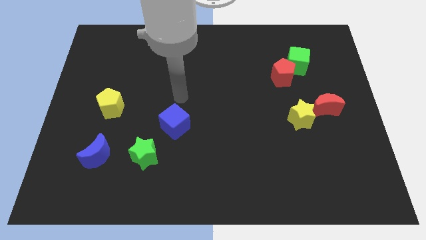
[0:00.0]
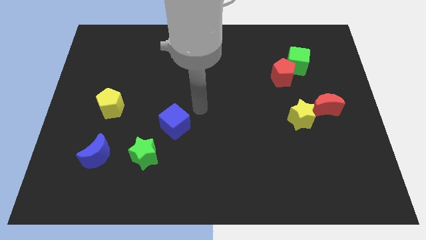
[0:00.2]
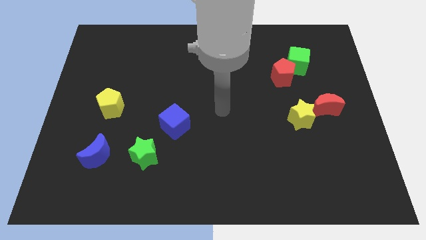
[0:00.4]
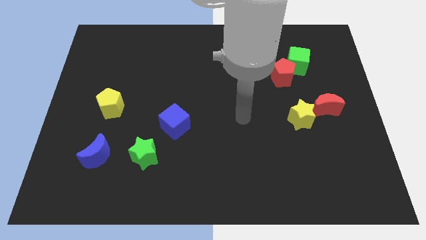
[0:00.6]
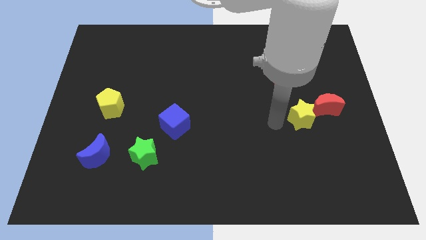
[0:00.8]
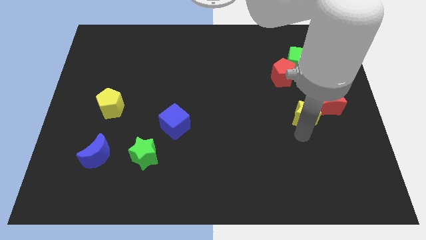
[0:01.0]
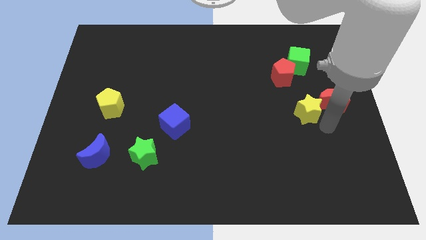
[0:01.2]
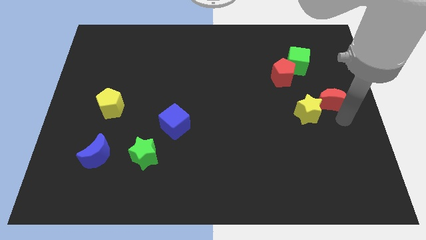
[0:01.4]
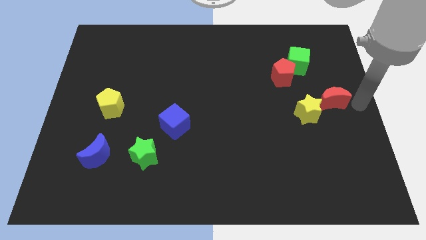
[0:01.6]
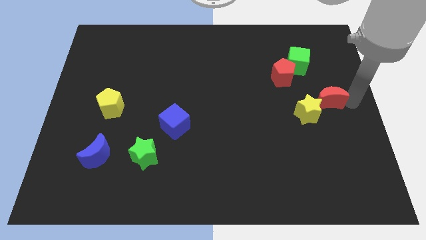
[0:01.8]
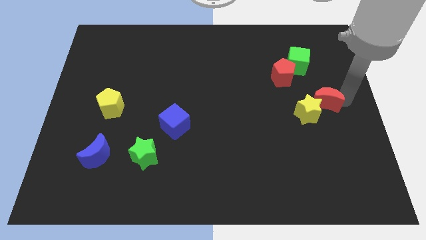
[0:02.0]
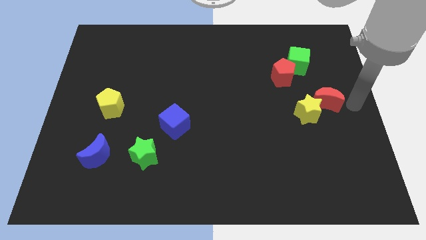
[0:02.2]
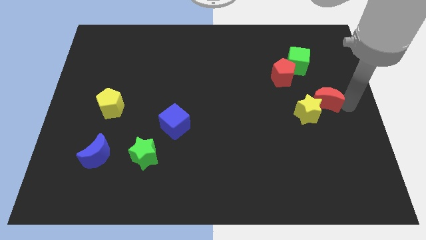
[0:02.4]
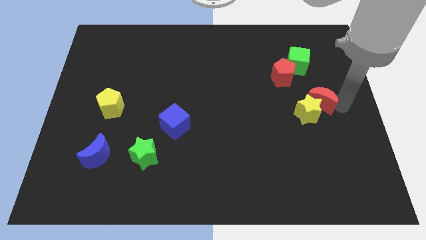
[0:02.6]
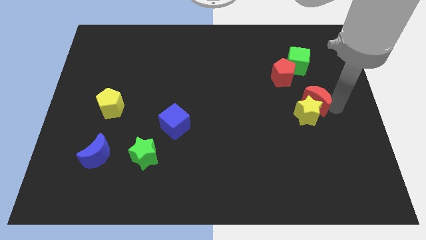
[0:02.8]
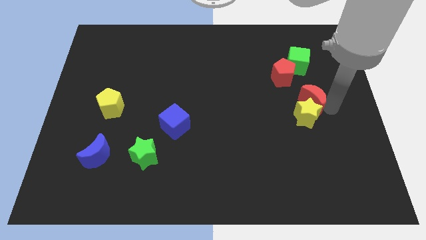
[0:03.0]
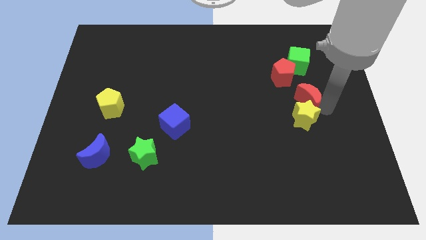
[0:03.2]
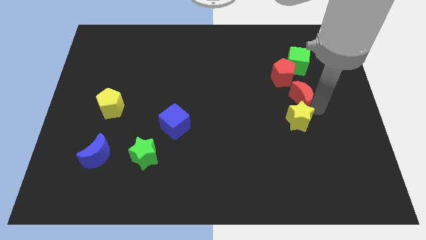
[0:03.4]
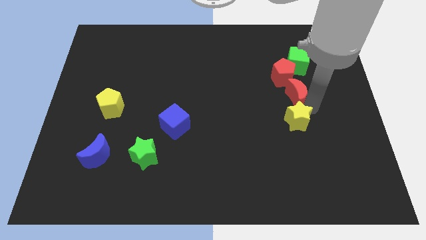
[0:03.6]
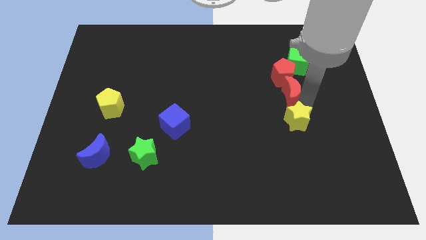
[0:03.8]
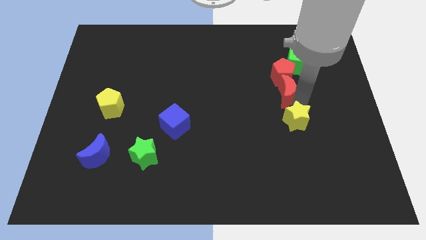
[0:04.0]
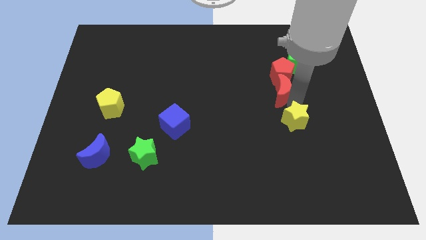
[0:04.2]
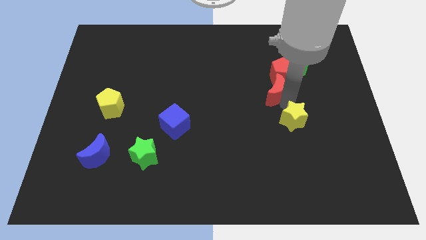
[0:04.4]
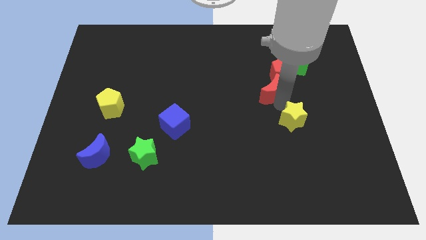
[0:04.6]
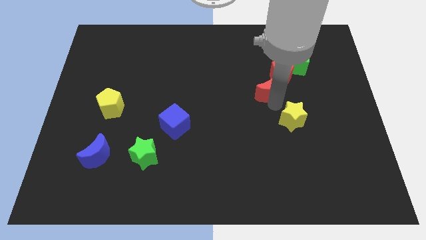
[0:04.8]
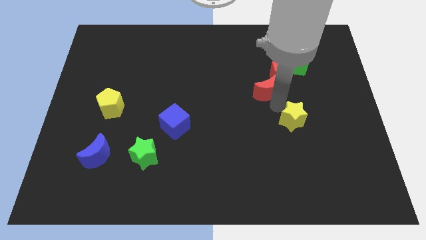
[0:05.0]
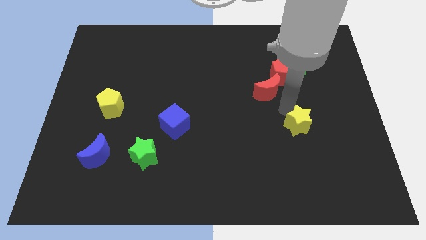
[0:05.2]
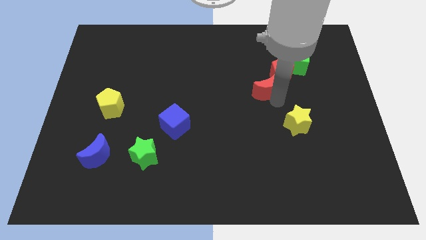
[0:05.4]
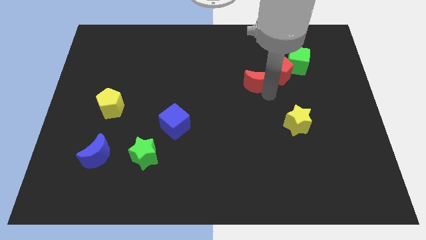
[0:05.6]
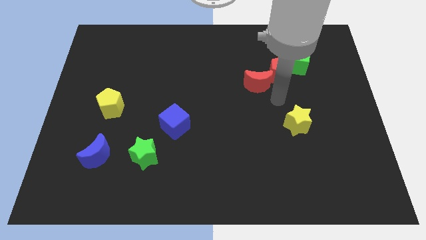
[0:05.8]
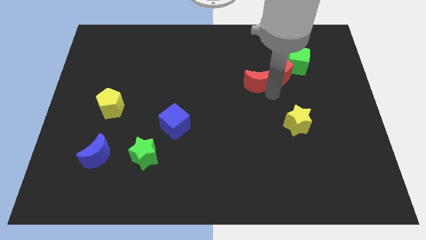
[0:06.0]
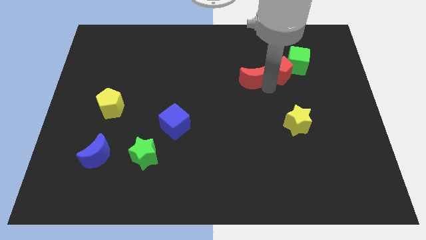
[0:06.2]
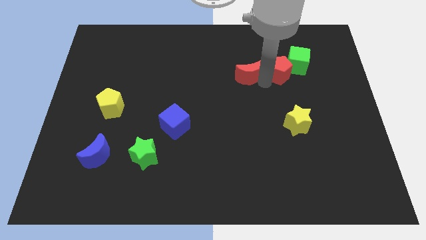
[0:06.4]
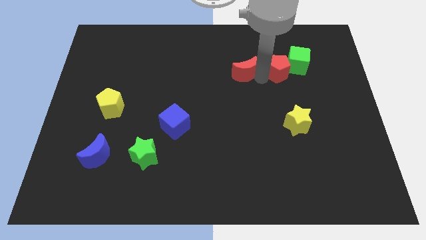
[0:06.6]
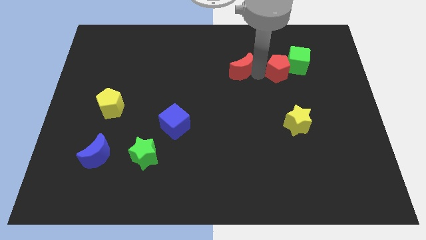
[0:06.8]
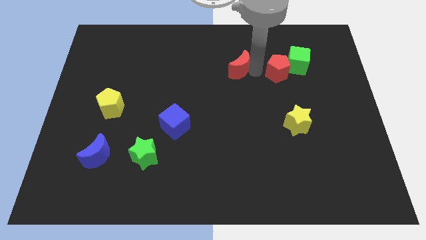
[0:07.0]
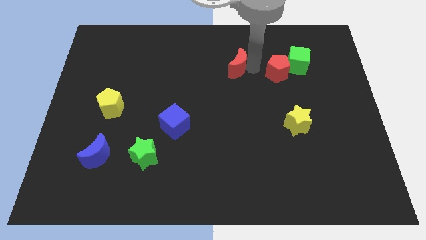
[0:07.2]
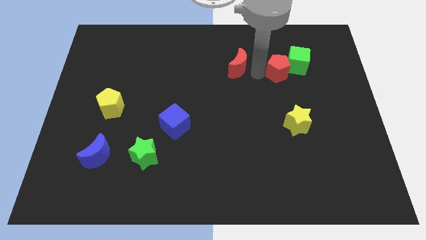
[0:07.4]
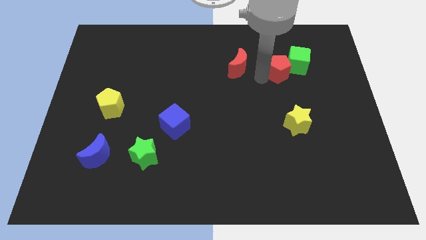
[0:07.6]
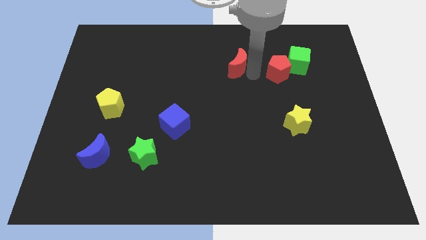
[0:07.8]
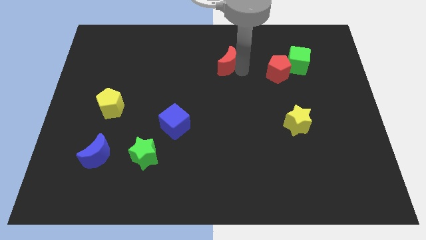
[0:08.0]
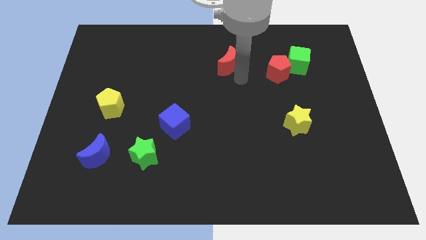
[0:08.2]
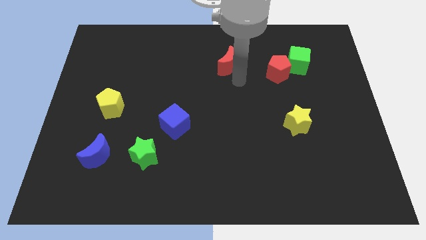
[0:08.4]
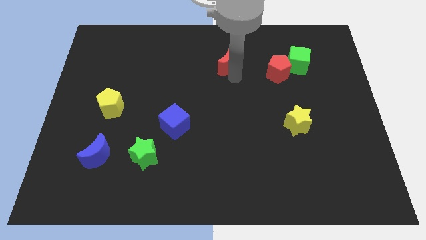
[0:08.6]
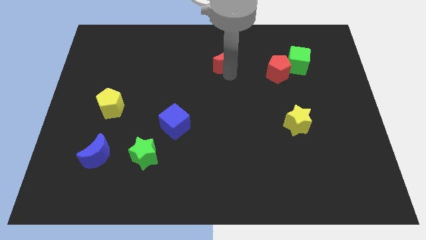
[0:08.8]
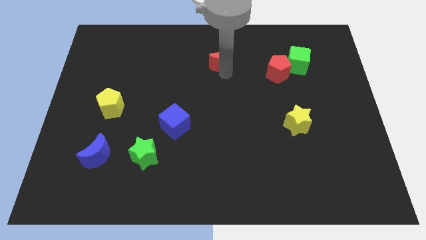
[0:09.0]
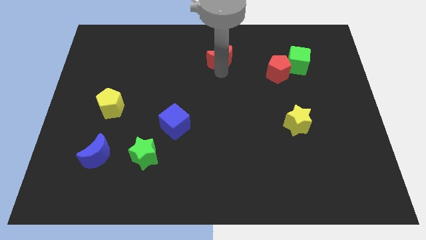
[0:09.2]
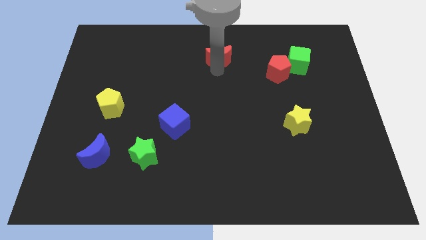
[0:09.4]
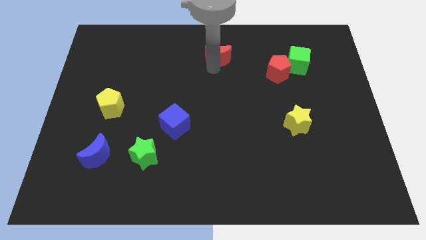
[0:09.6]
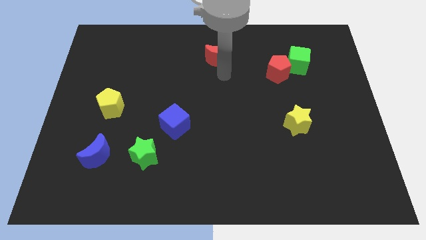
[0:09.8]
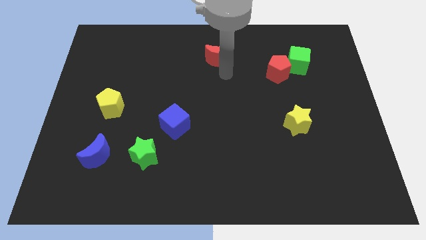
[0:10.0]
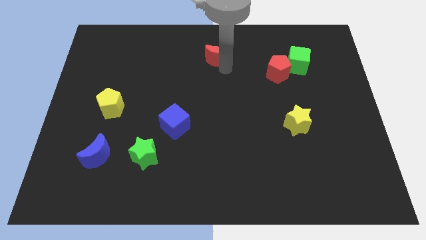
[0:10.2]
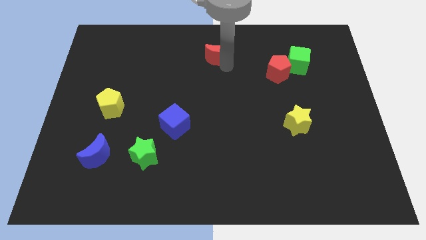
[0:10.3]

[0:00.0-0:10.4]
slide the red moon to the top side

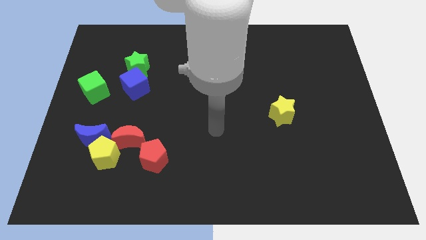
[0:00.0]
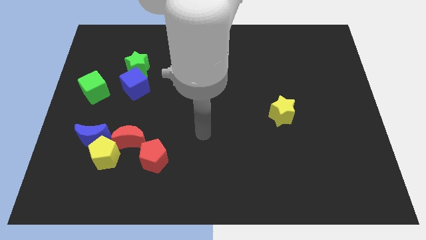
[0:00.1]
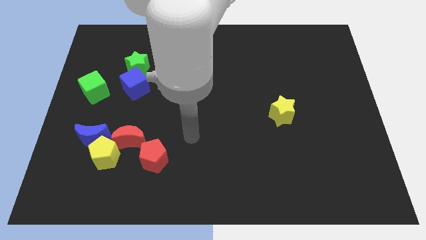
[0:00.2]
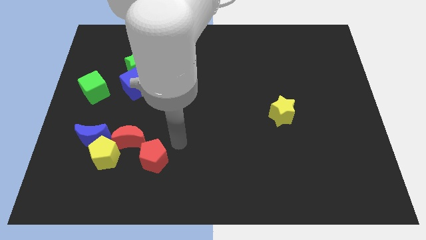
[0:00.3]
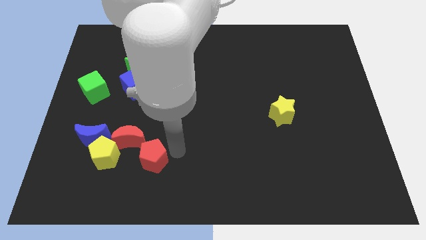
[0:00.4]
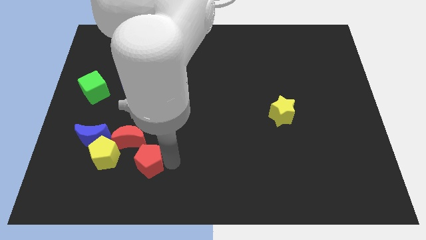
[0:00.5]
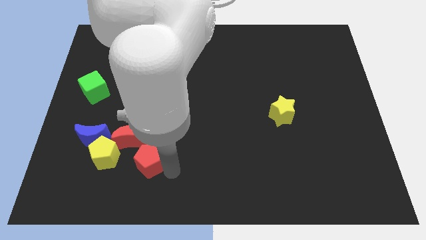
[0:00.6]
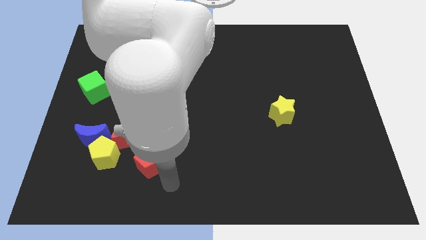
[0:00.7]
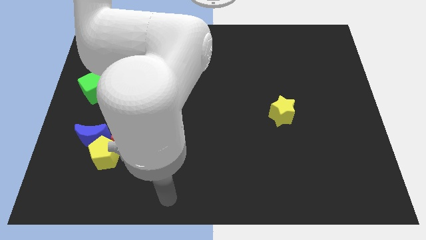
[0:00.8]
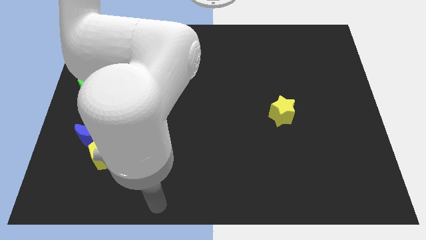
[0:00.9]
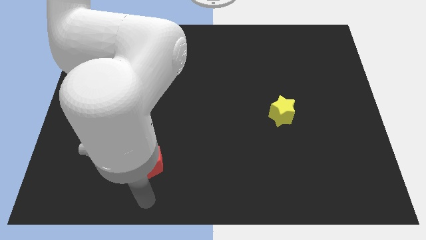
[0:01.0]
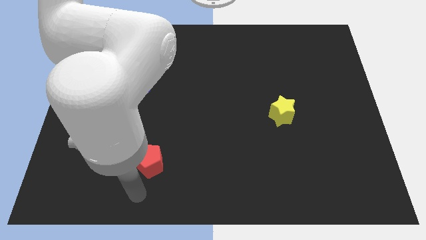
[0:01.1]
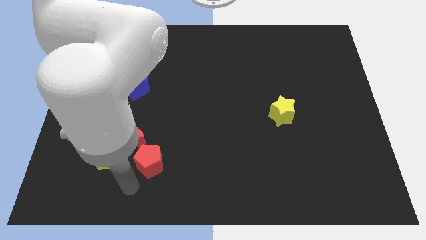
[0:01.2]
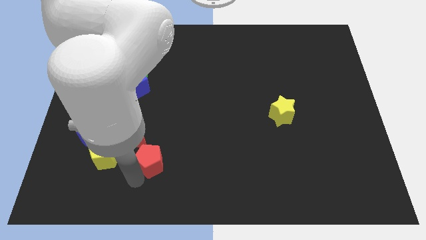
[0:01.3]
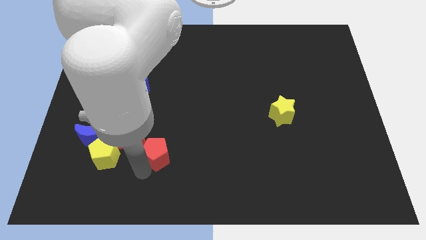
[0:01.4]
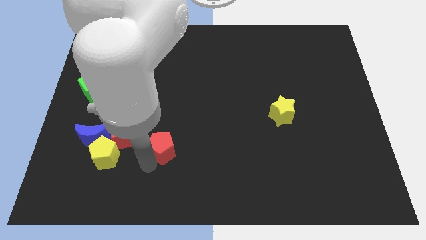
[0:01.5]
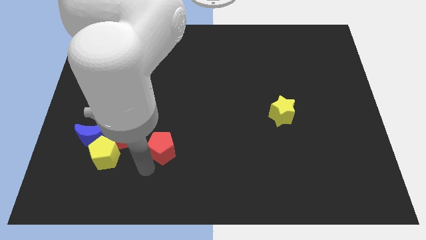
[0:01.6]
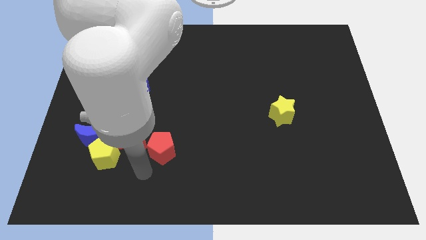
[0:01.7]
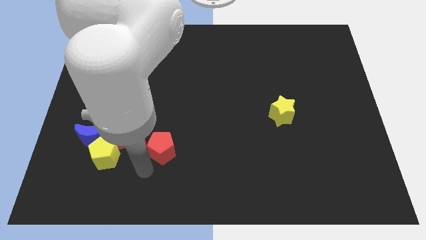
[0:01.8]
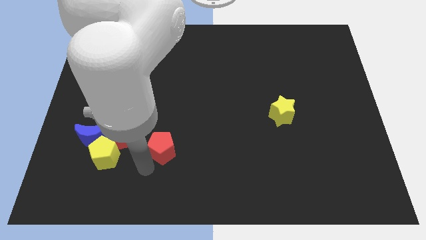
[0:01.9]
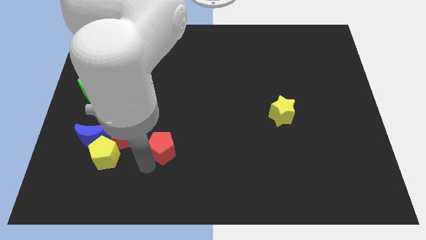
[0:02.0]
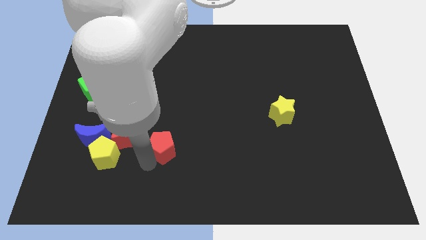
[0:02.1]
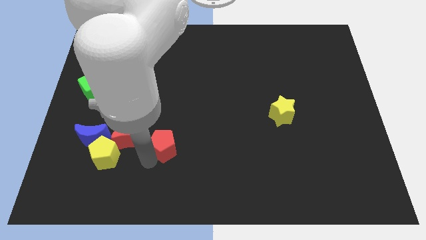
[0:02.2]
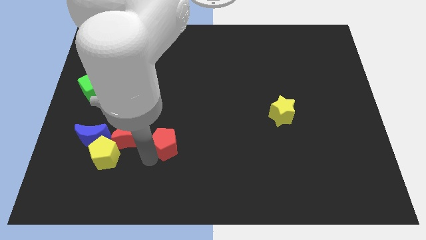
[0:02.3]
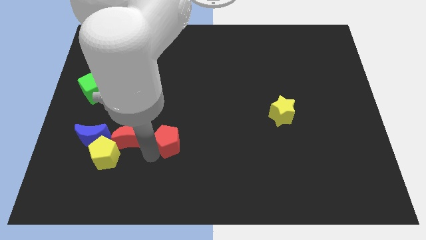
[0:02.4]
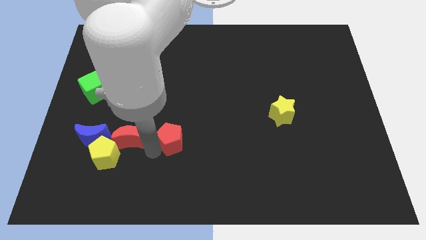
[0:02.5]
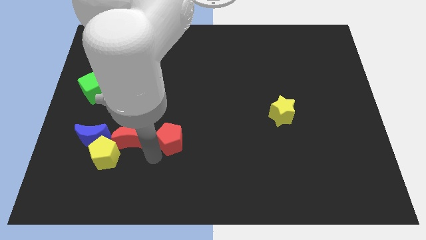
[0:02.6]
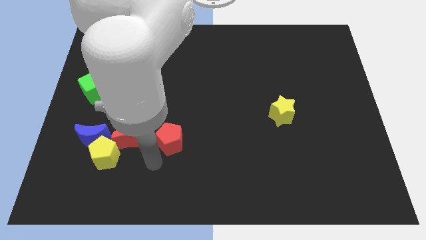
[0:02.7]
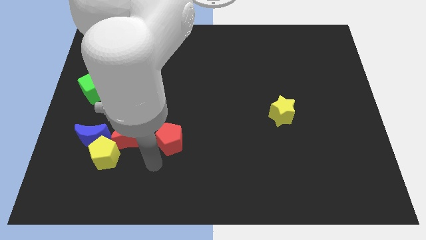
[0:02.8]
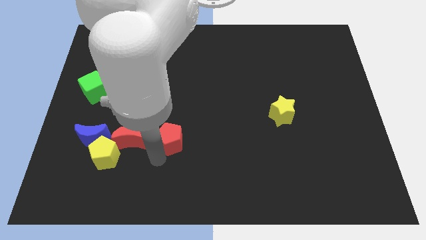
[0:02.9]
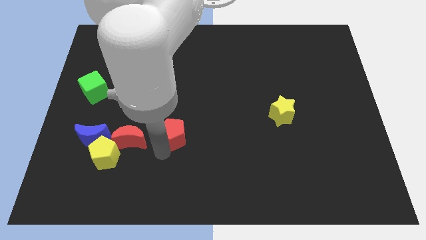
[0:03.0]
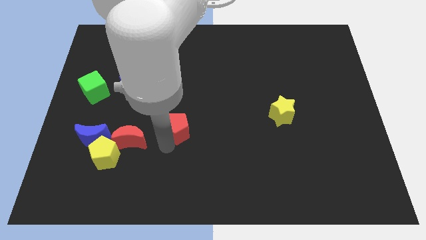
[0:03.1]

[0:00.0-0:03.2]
push the red pentagon to the center of the board
